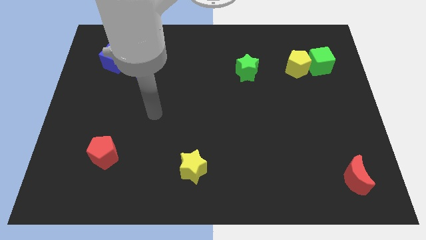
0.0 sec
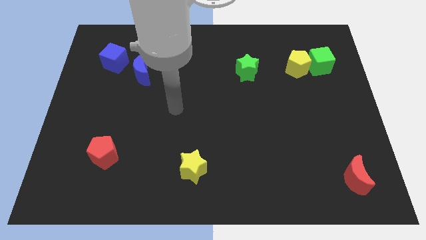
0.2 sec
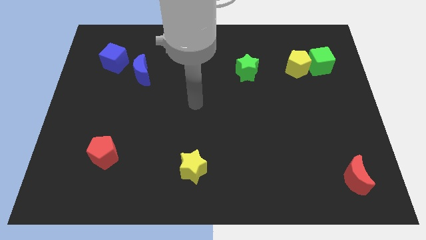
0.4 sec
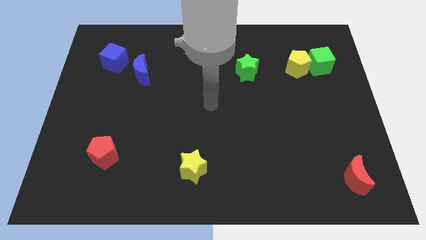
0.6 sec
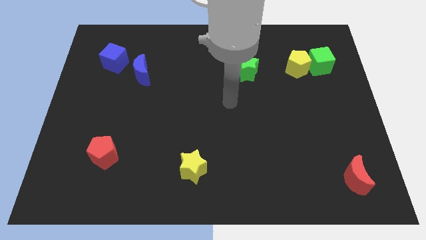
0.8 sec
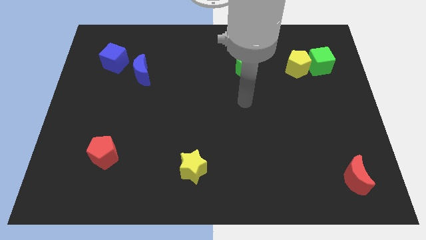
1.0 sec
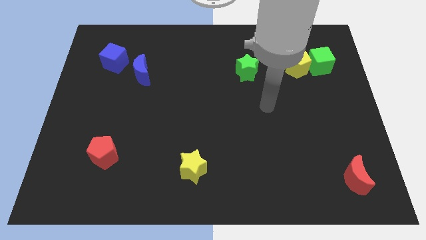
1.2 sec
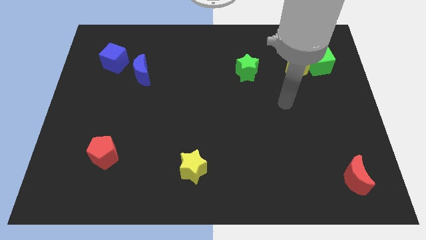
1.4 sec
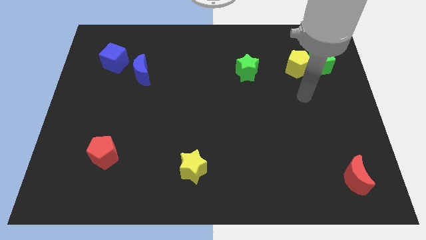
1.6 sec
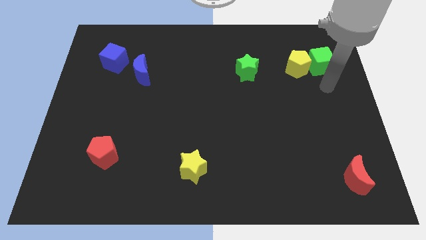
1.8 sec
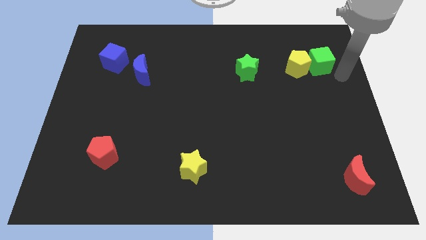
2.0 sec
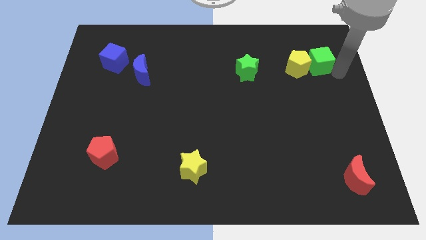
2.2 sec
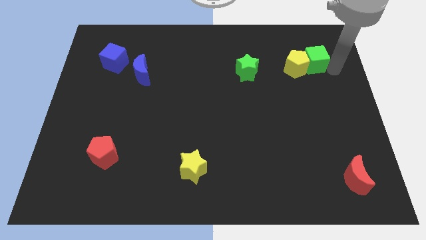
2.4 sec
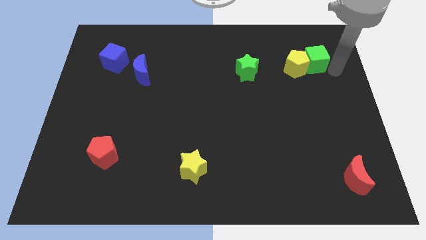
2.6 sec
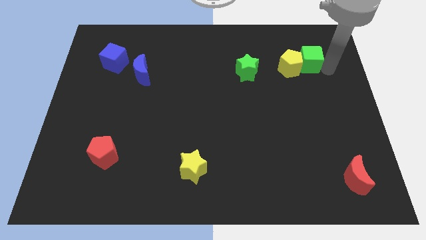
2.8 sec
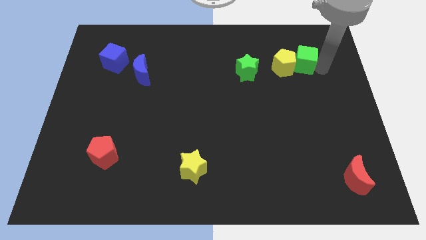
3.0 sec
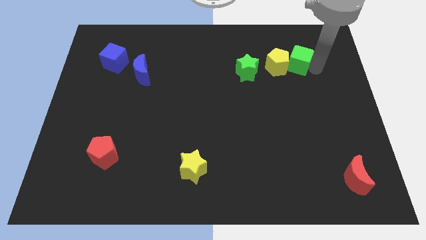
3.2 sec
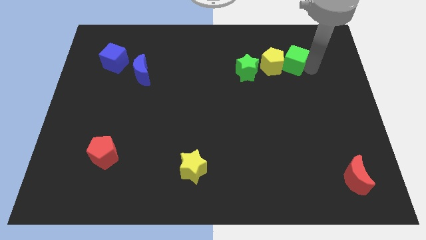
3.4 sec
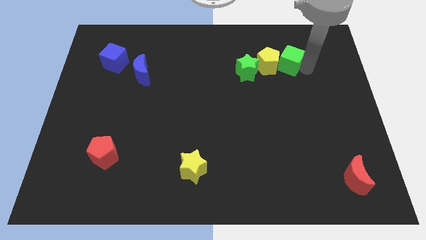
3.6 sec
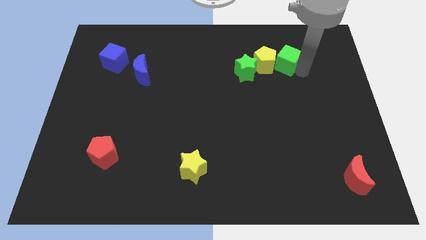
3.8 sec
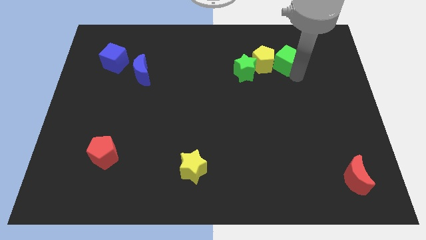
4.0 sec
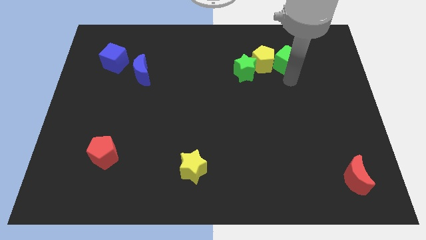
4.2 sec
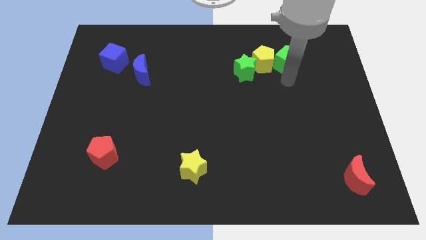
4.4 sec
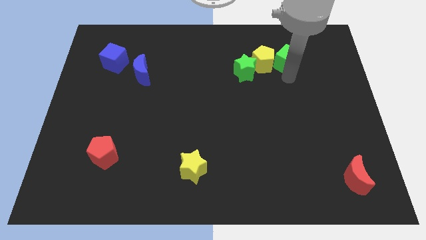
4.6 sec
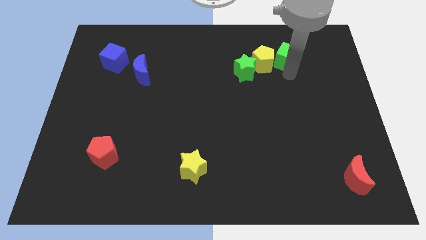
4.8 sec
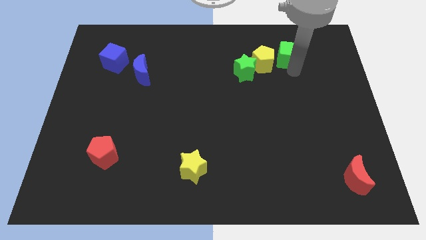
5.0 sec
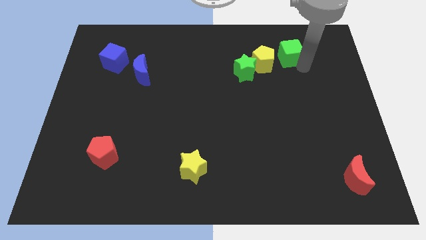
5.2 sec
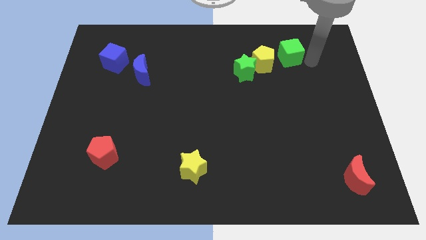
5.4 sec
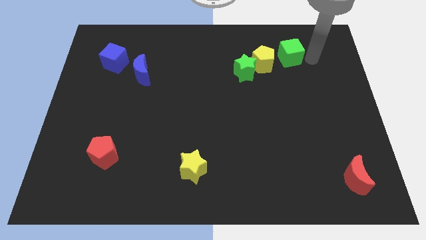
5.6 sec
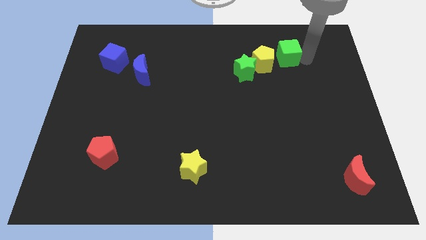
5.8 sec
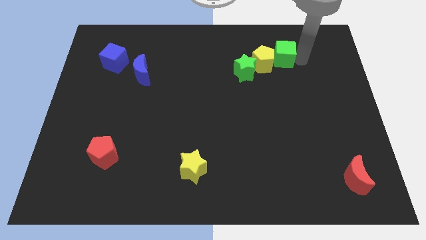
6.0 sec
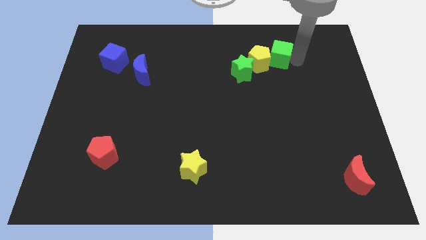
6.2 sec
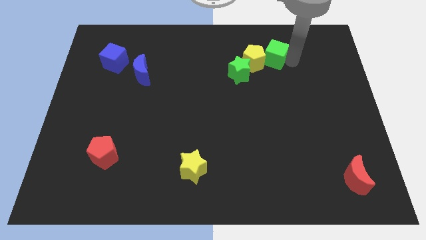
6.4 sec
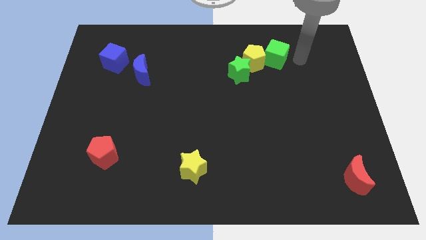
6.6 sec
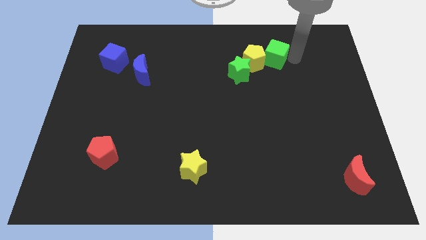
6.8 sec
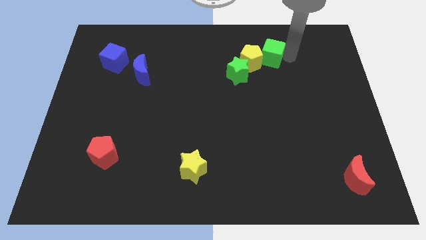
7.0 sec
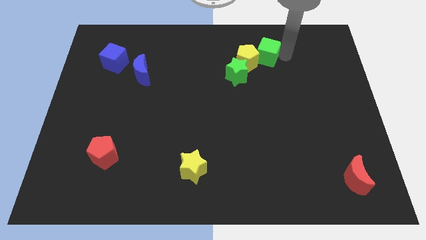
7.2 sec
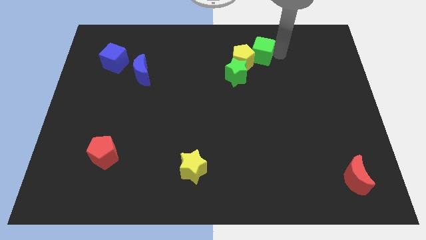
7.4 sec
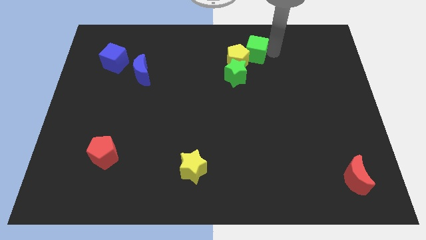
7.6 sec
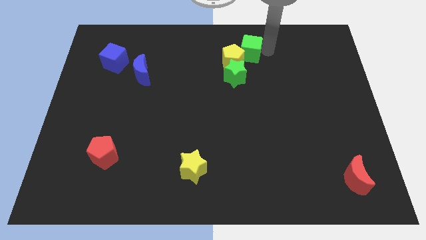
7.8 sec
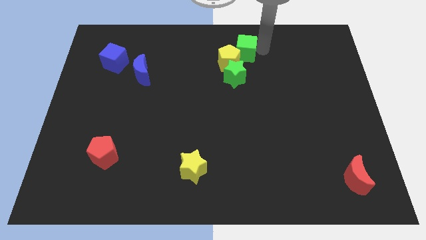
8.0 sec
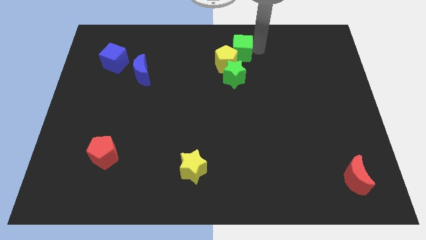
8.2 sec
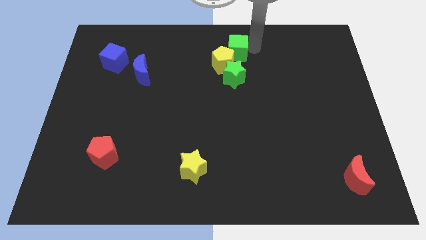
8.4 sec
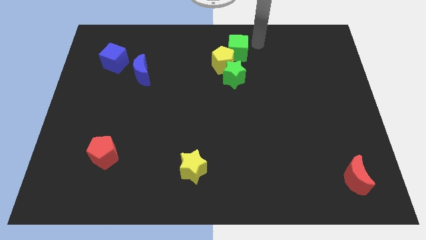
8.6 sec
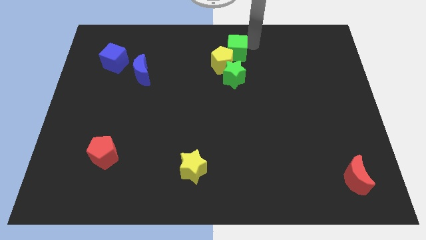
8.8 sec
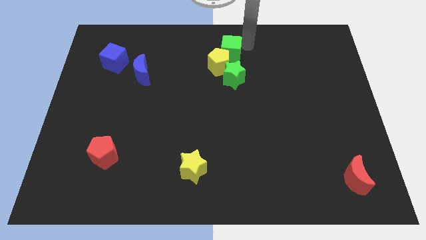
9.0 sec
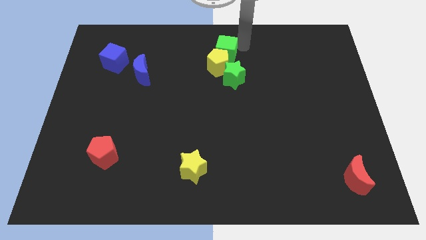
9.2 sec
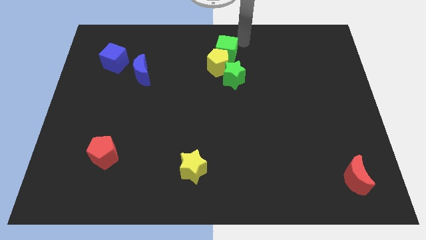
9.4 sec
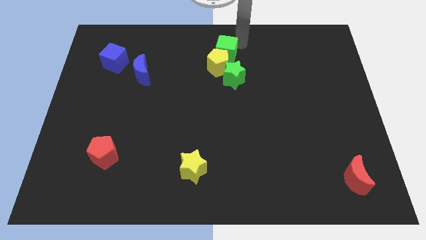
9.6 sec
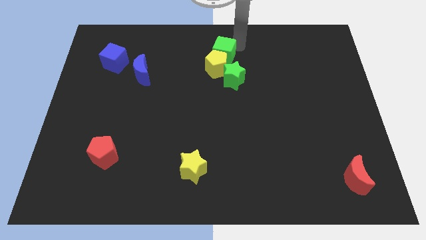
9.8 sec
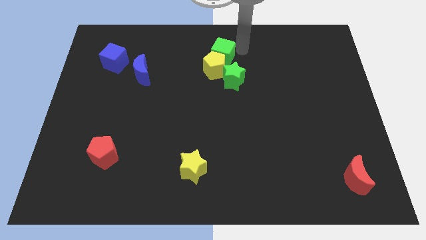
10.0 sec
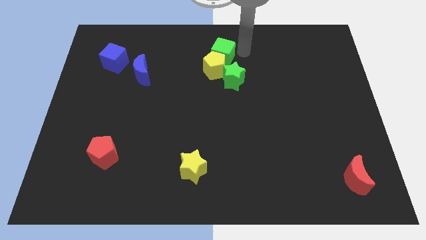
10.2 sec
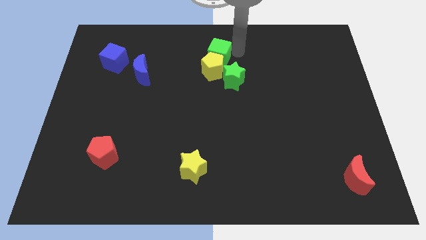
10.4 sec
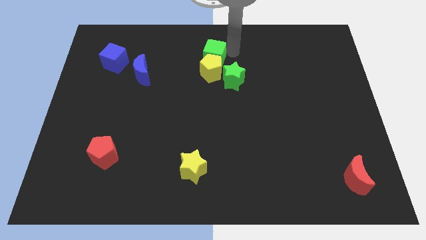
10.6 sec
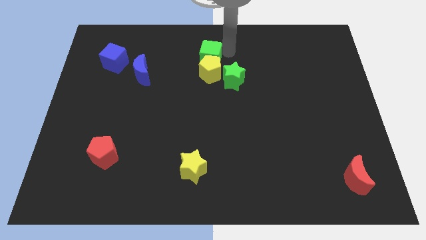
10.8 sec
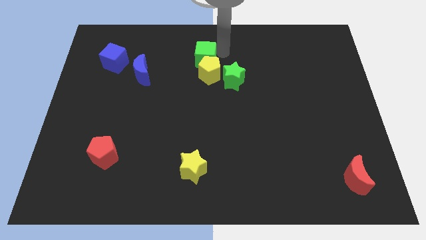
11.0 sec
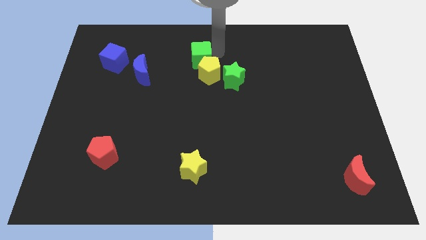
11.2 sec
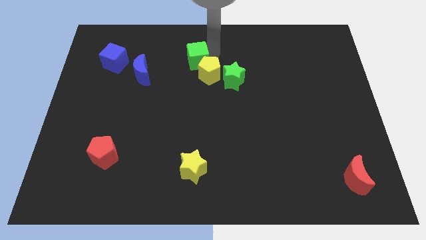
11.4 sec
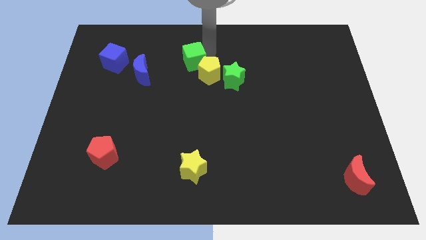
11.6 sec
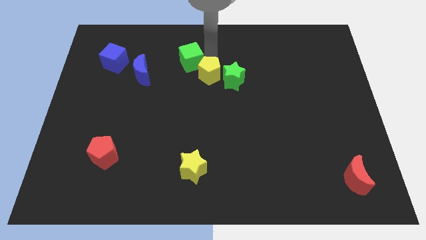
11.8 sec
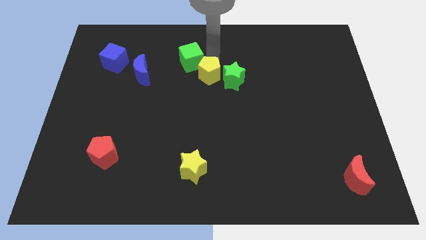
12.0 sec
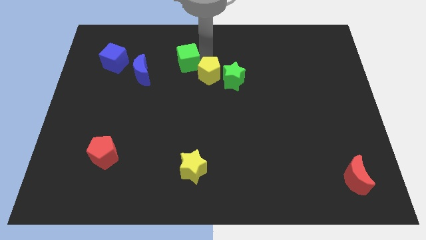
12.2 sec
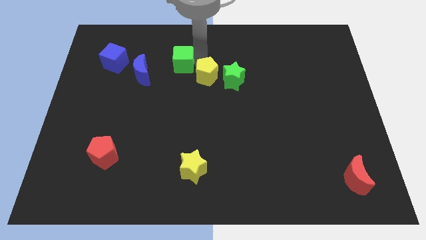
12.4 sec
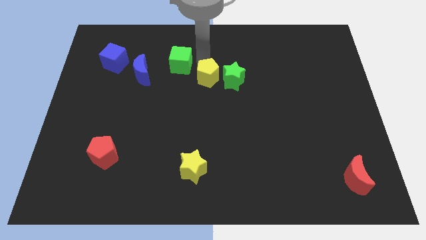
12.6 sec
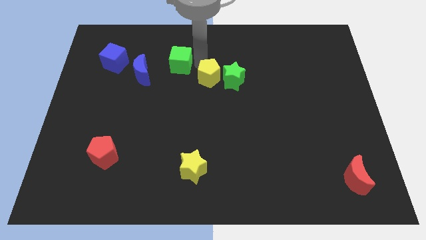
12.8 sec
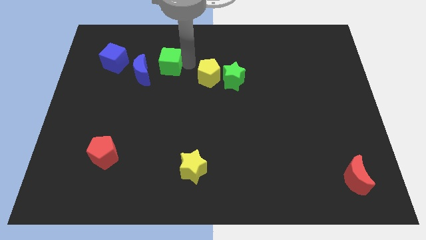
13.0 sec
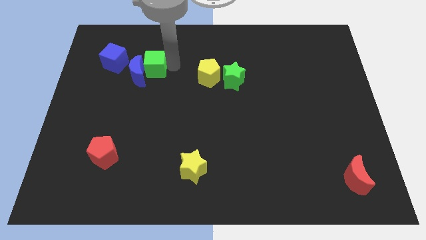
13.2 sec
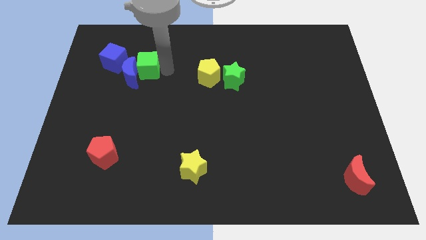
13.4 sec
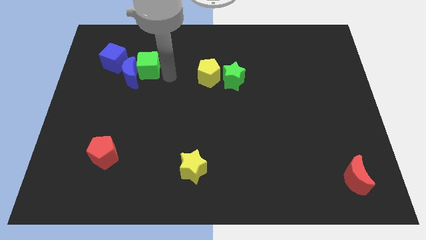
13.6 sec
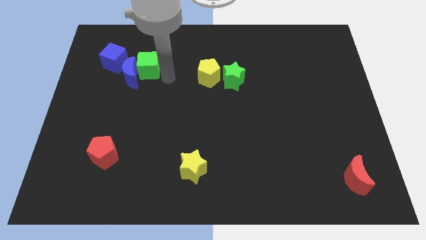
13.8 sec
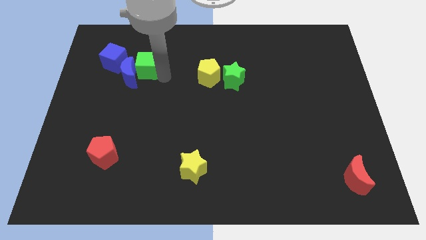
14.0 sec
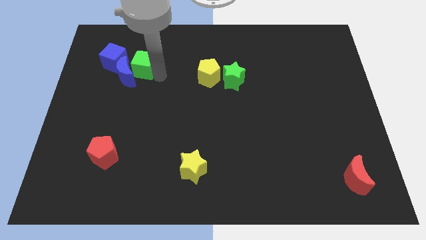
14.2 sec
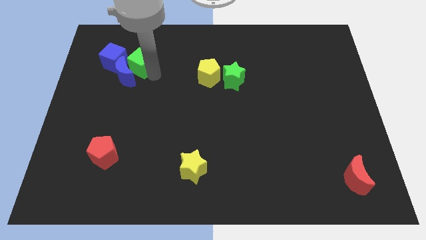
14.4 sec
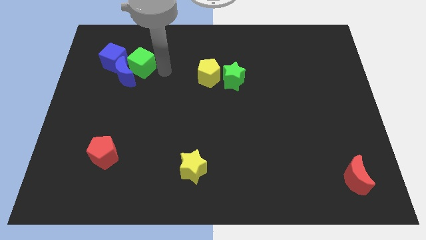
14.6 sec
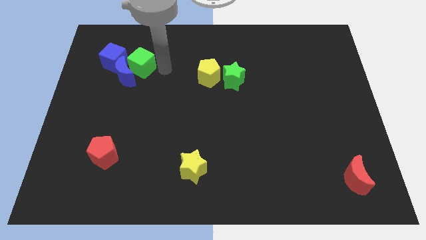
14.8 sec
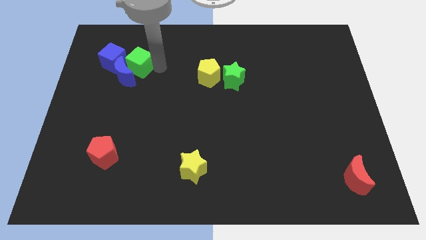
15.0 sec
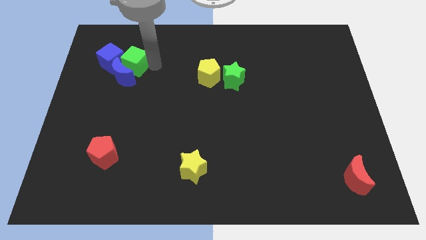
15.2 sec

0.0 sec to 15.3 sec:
move the green cube towards the blue cube

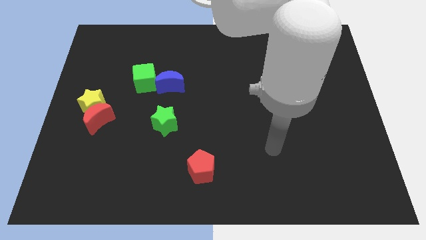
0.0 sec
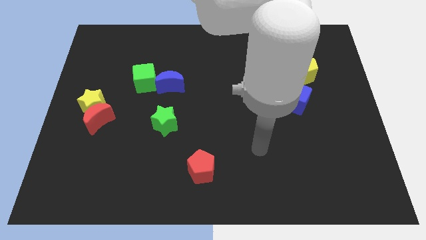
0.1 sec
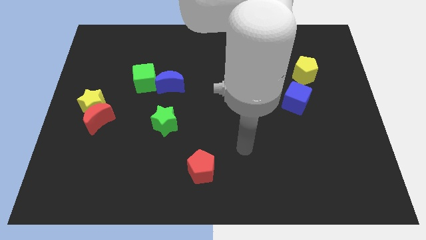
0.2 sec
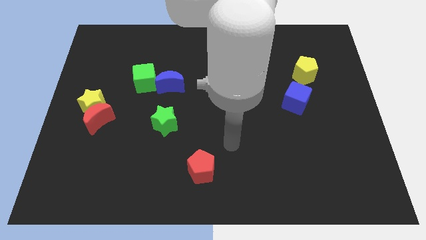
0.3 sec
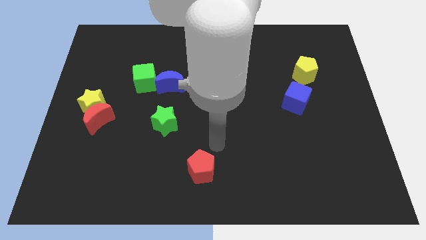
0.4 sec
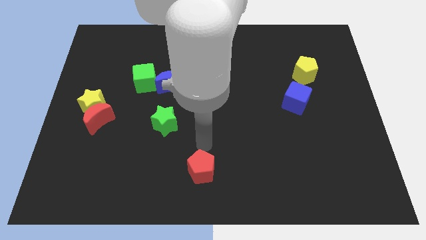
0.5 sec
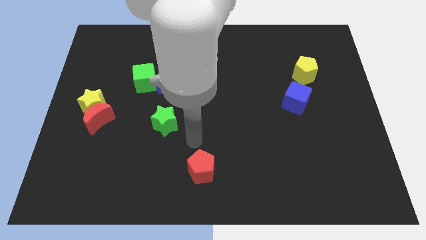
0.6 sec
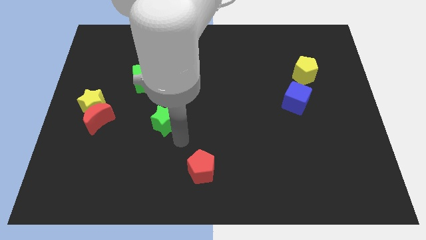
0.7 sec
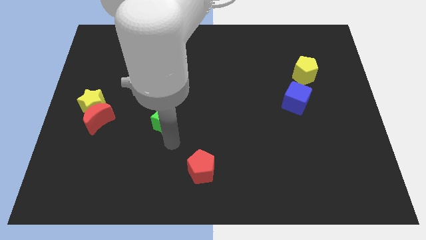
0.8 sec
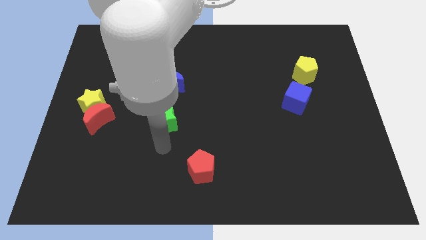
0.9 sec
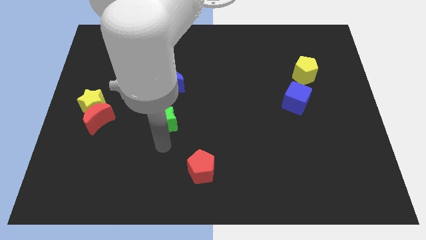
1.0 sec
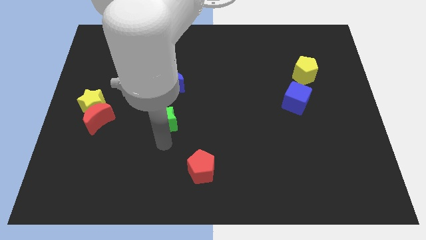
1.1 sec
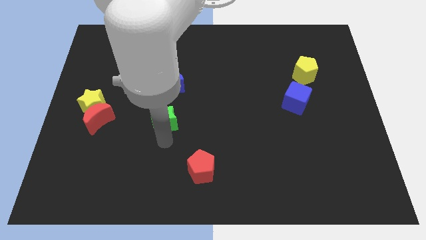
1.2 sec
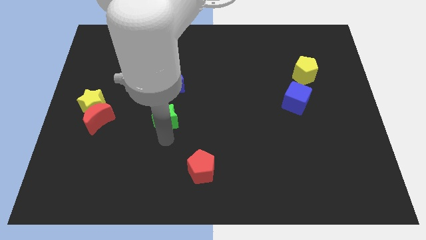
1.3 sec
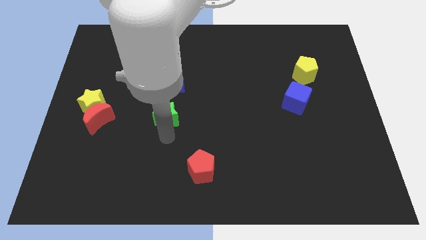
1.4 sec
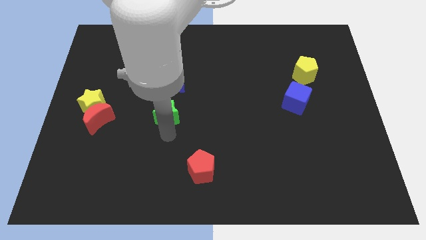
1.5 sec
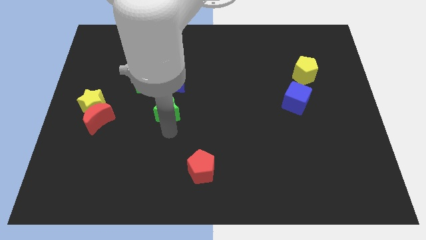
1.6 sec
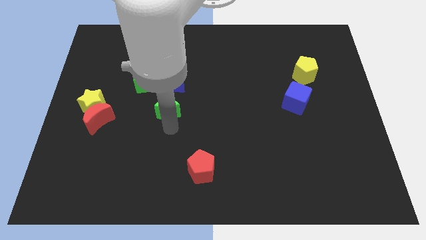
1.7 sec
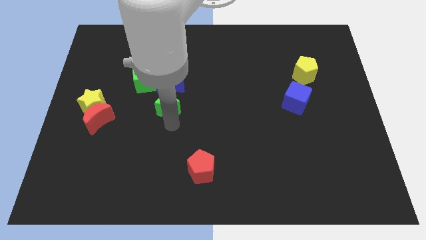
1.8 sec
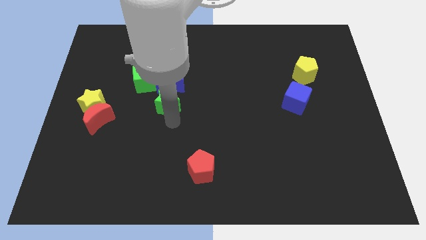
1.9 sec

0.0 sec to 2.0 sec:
put the green star to the blue moon
